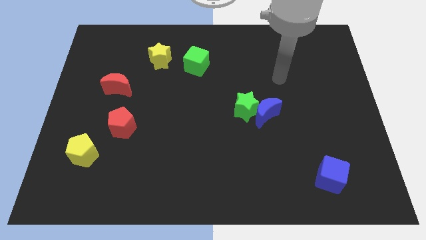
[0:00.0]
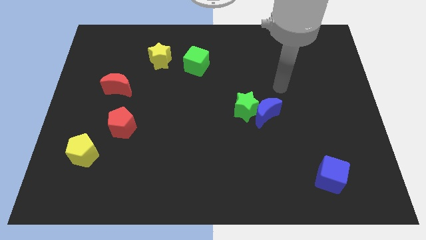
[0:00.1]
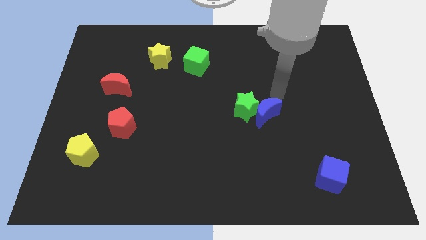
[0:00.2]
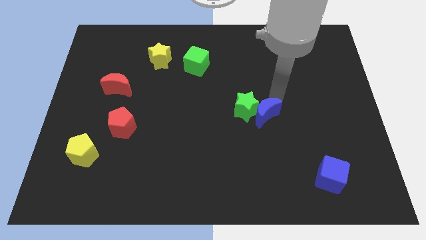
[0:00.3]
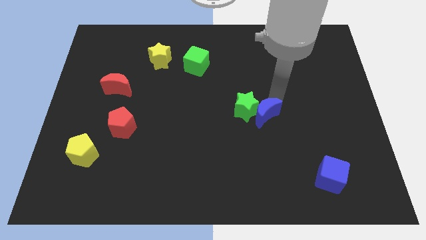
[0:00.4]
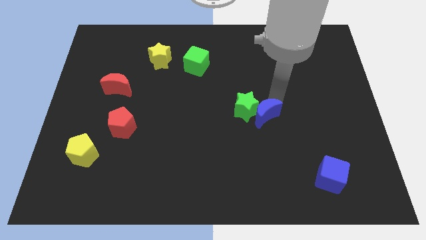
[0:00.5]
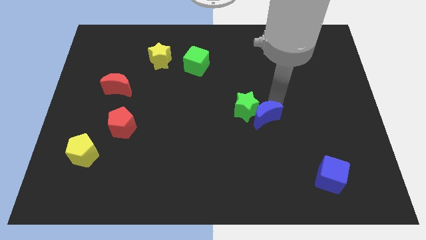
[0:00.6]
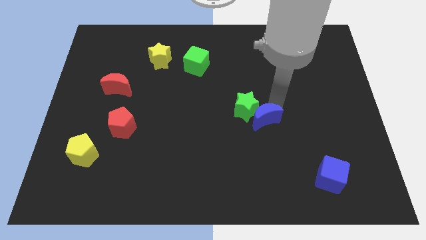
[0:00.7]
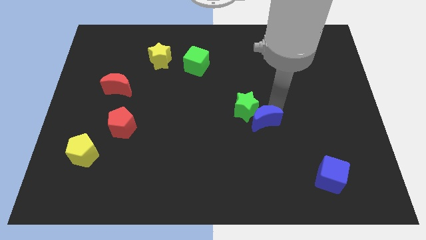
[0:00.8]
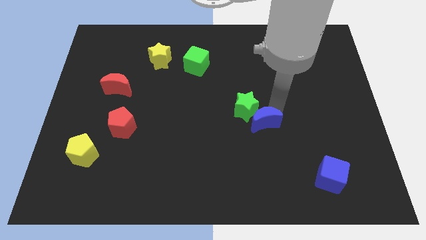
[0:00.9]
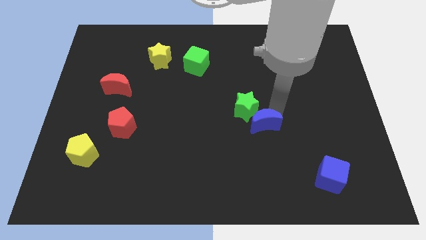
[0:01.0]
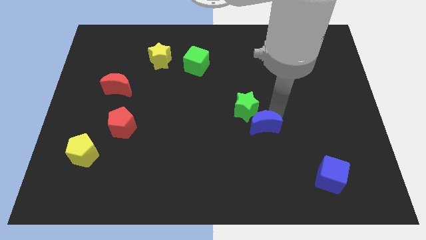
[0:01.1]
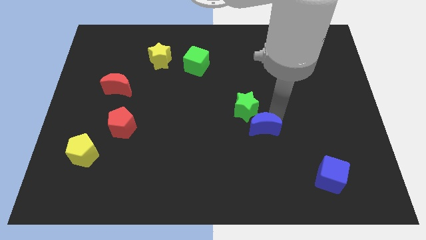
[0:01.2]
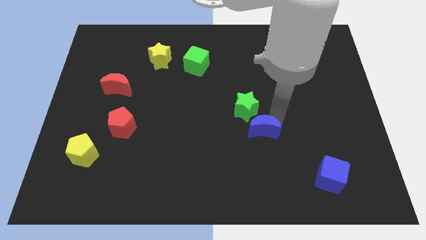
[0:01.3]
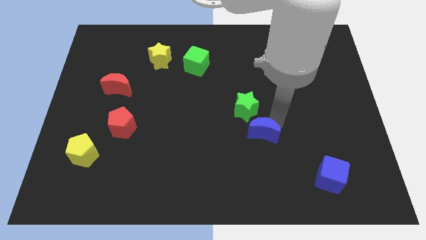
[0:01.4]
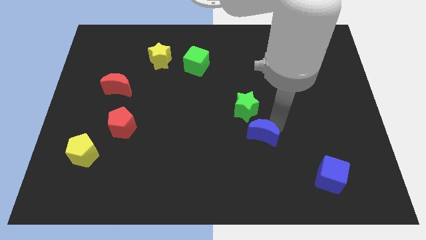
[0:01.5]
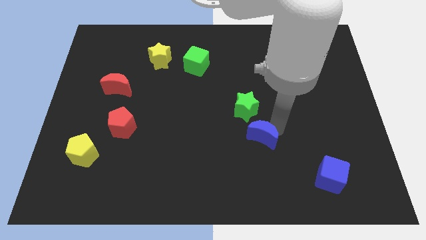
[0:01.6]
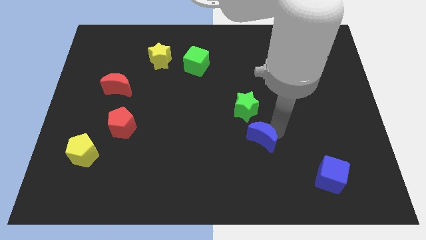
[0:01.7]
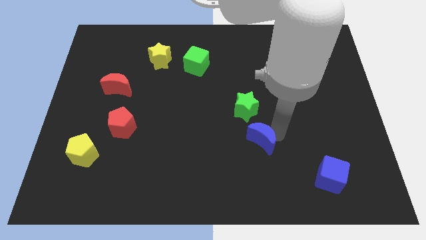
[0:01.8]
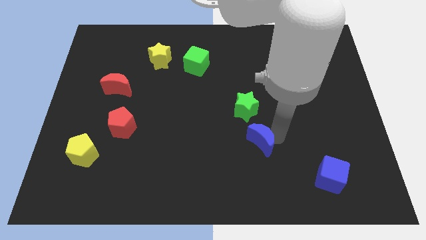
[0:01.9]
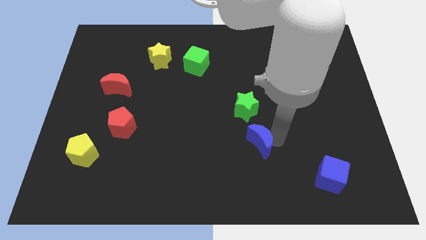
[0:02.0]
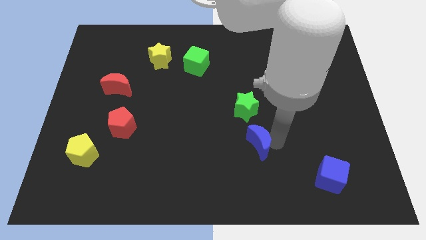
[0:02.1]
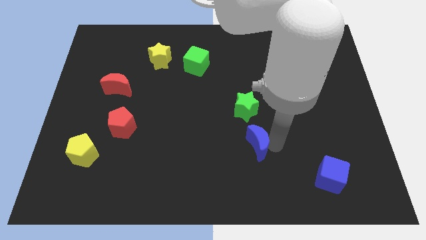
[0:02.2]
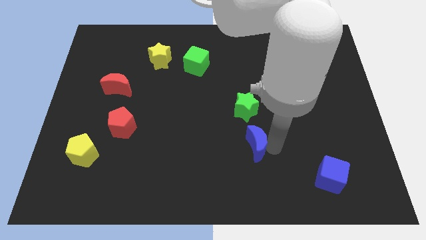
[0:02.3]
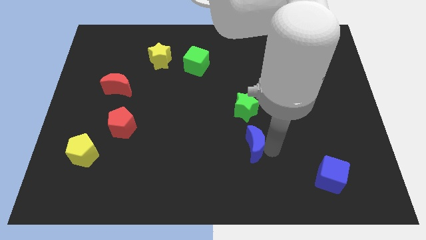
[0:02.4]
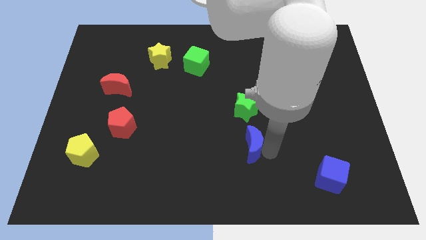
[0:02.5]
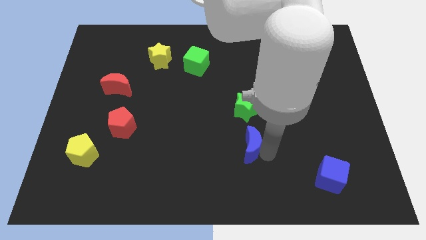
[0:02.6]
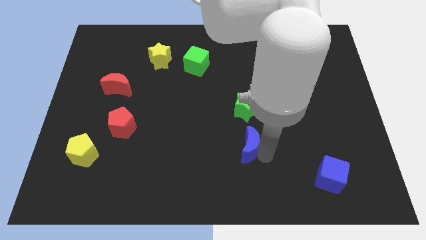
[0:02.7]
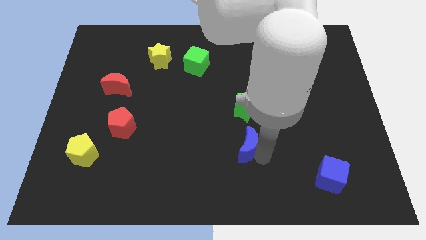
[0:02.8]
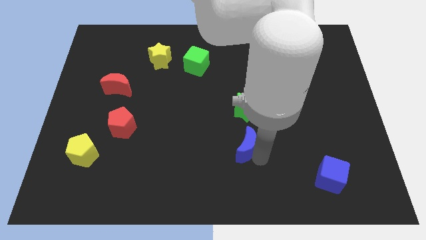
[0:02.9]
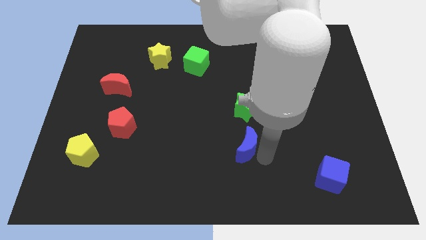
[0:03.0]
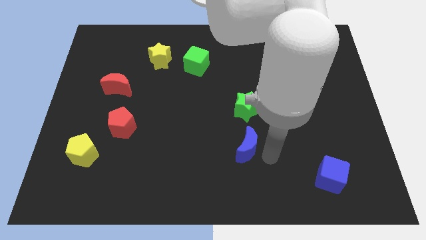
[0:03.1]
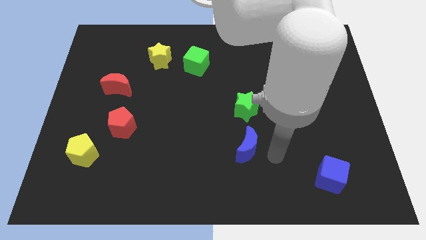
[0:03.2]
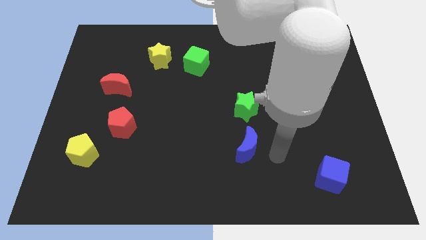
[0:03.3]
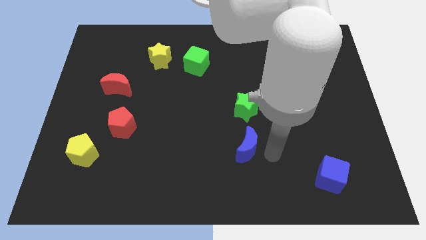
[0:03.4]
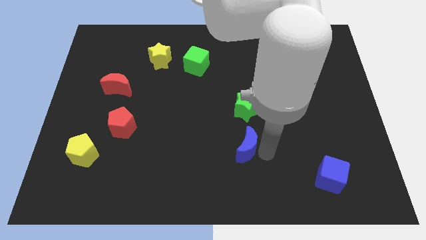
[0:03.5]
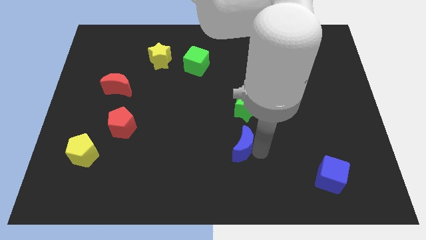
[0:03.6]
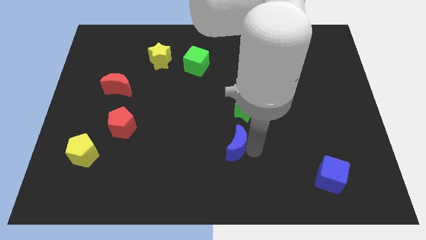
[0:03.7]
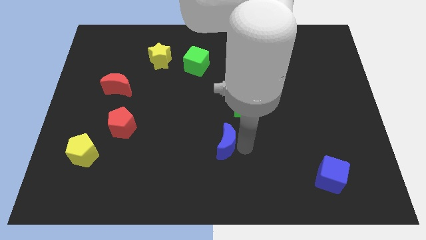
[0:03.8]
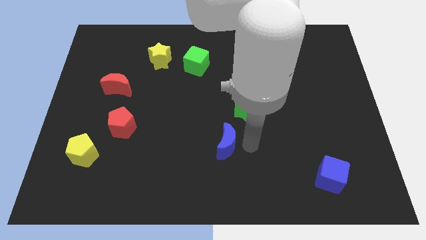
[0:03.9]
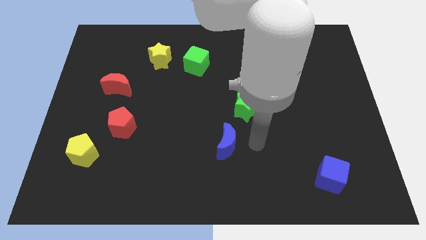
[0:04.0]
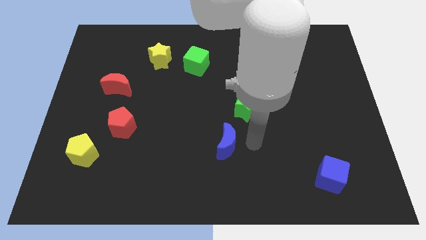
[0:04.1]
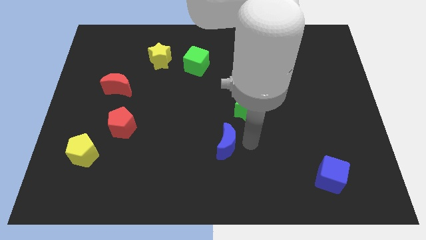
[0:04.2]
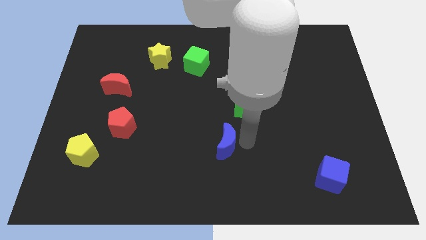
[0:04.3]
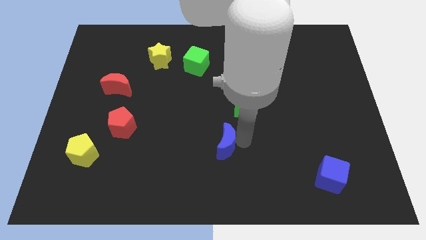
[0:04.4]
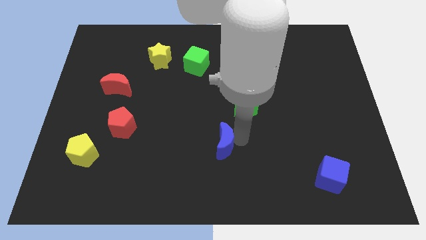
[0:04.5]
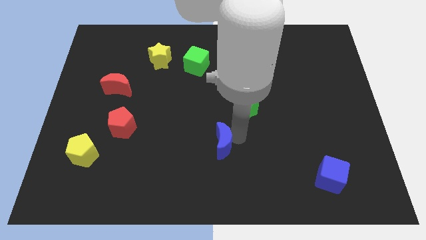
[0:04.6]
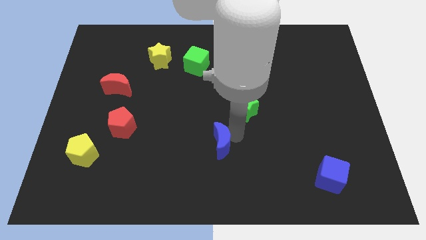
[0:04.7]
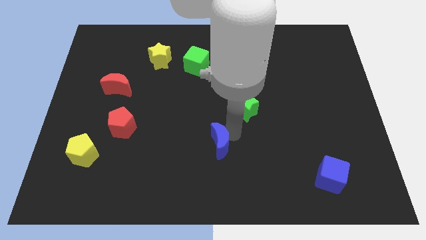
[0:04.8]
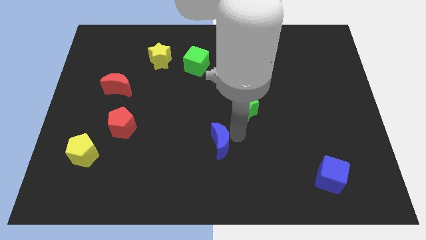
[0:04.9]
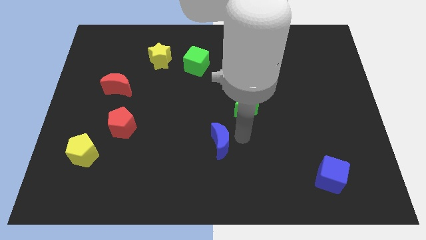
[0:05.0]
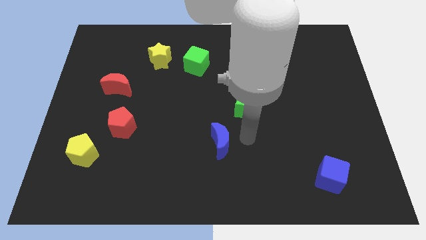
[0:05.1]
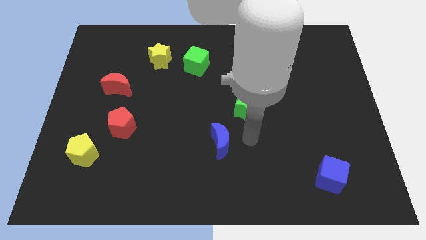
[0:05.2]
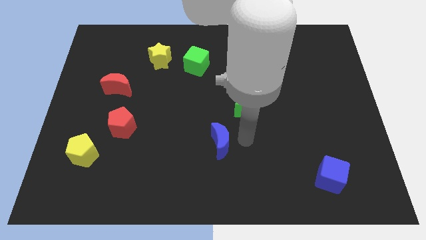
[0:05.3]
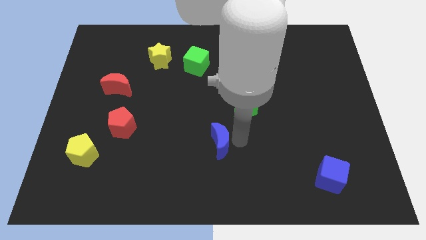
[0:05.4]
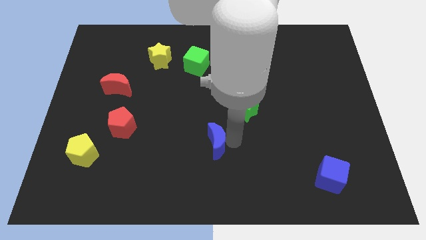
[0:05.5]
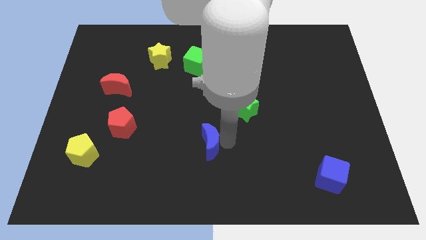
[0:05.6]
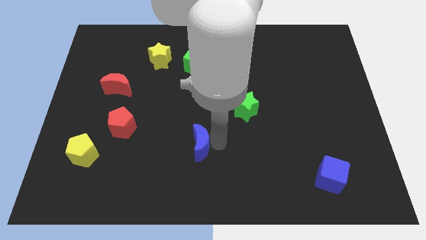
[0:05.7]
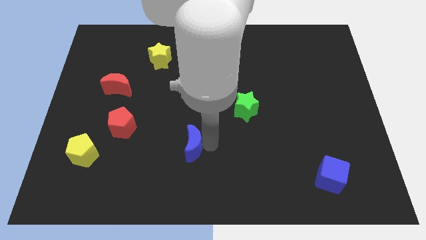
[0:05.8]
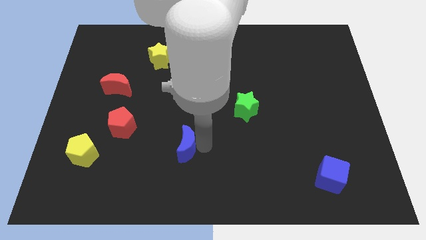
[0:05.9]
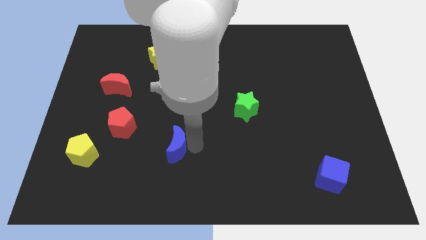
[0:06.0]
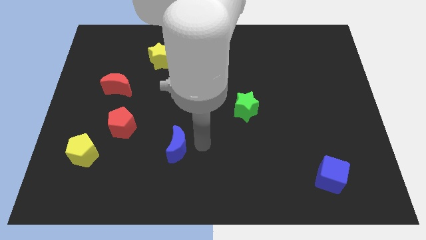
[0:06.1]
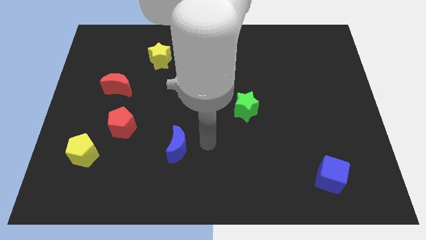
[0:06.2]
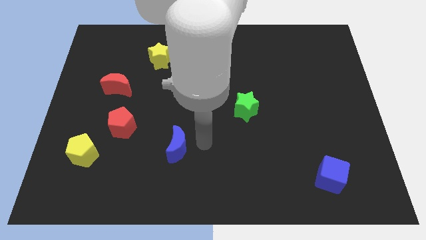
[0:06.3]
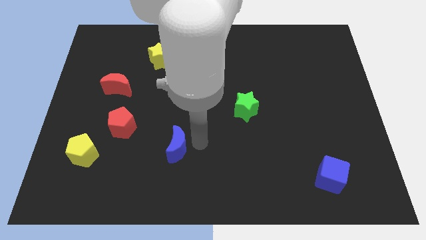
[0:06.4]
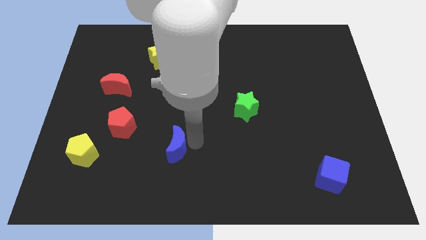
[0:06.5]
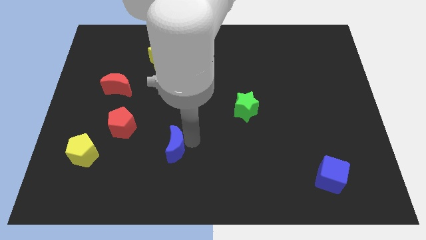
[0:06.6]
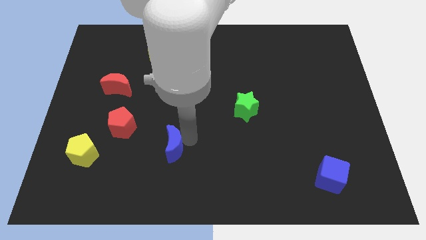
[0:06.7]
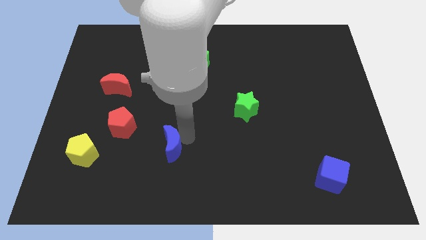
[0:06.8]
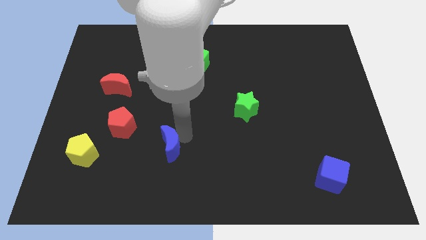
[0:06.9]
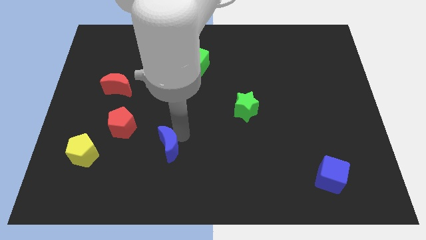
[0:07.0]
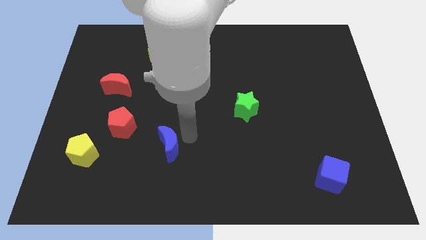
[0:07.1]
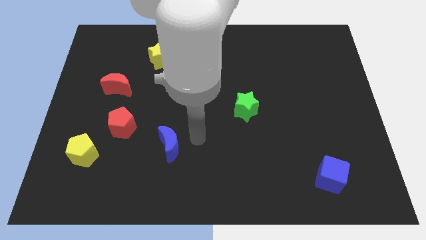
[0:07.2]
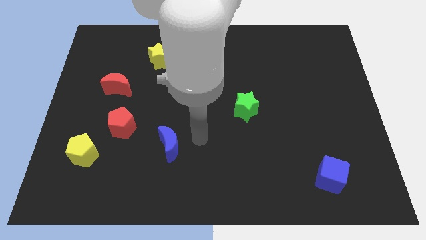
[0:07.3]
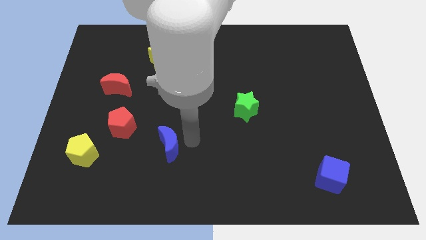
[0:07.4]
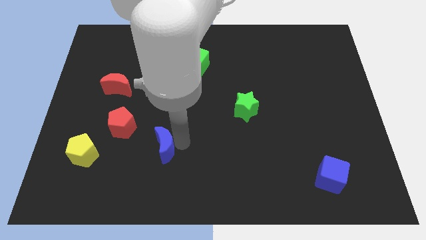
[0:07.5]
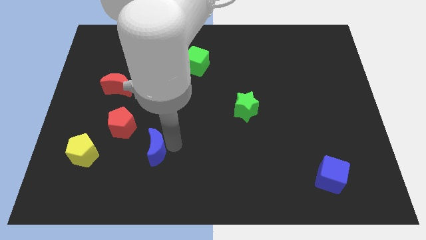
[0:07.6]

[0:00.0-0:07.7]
move the blue moon right of the yellow pentagon
